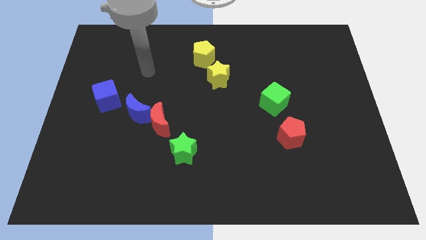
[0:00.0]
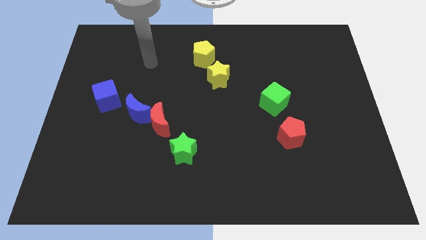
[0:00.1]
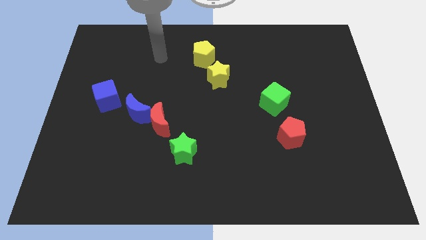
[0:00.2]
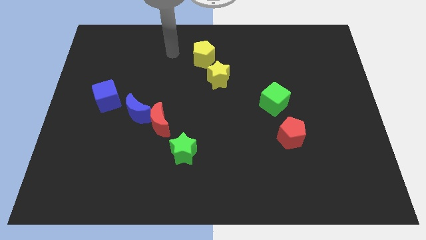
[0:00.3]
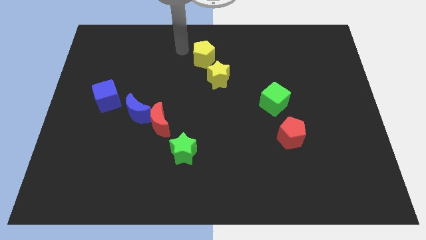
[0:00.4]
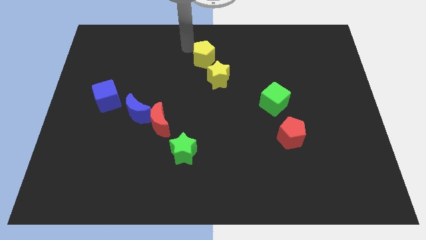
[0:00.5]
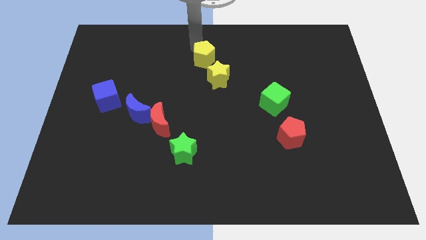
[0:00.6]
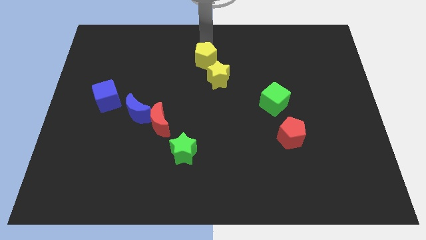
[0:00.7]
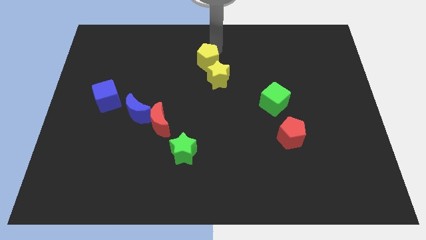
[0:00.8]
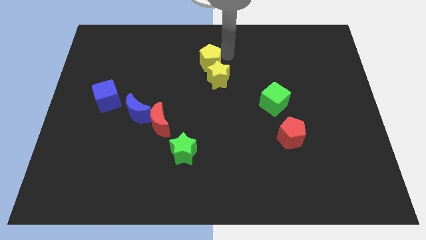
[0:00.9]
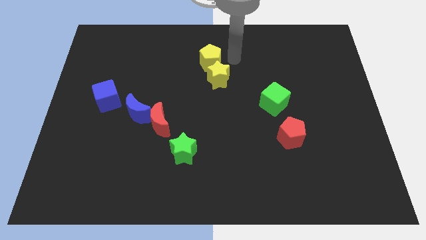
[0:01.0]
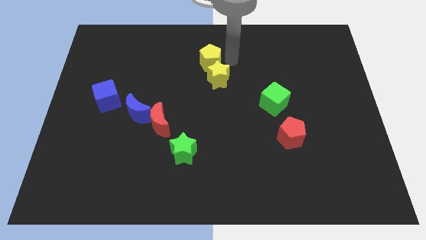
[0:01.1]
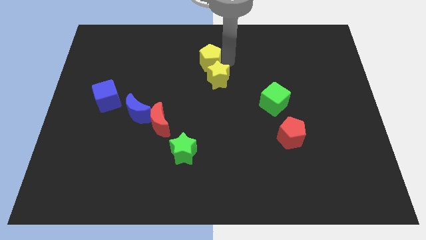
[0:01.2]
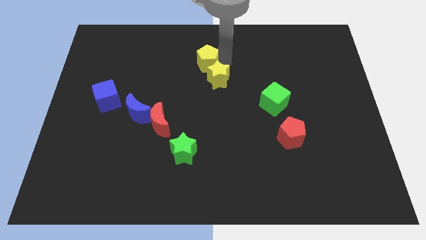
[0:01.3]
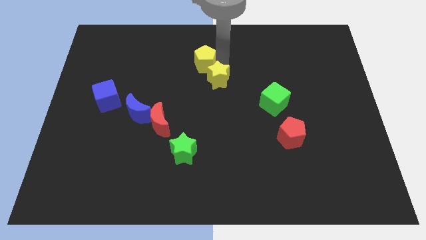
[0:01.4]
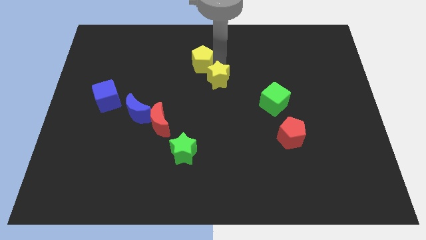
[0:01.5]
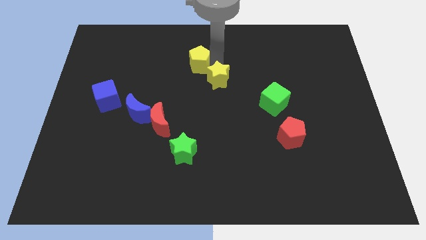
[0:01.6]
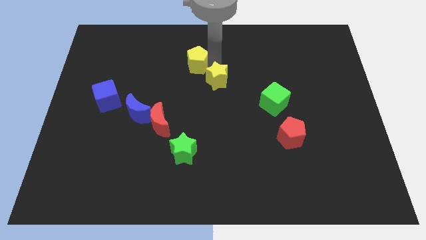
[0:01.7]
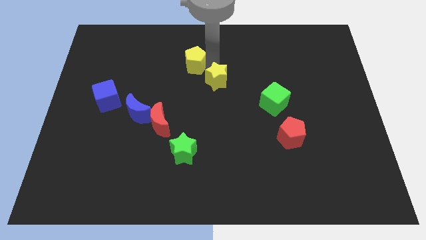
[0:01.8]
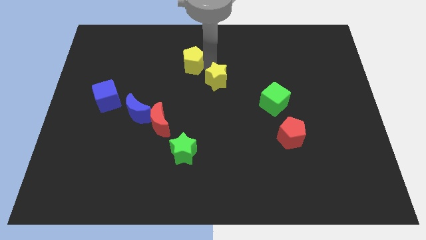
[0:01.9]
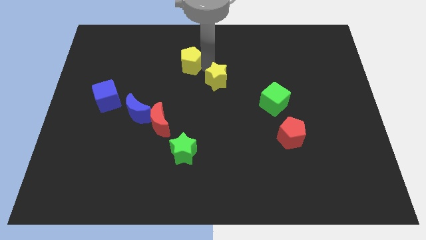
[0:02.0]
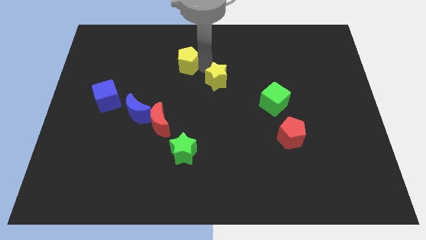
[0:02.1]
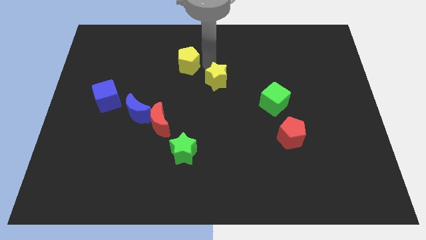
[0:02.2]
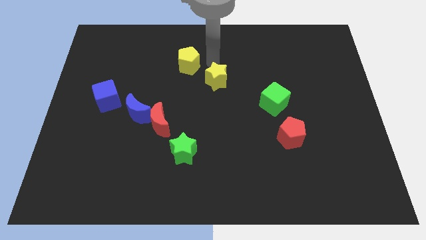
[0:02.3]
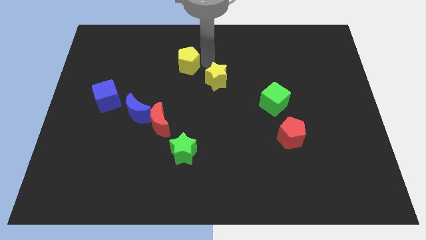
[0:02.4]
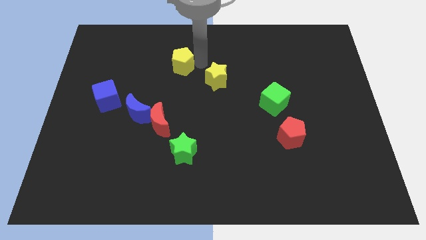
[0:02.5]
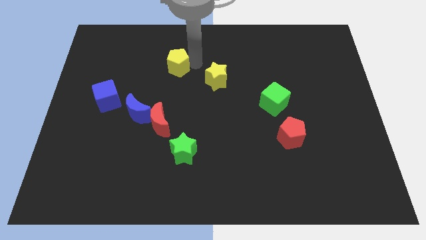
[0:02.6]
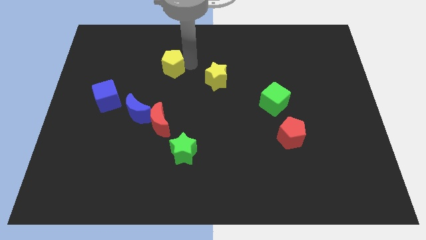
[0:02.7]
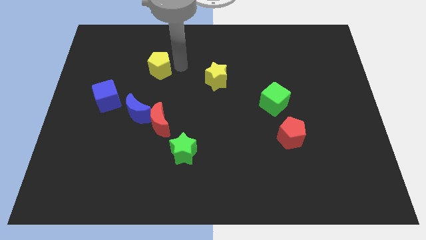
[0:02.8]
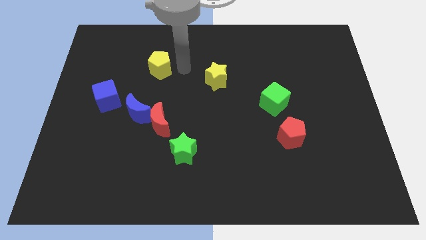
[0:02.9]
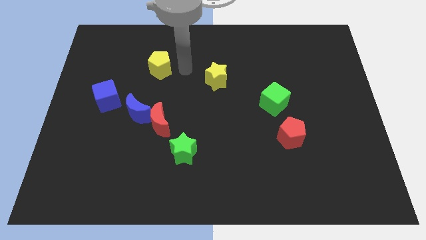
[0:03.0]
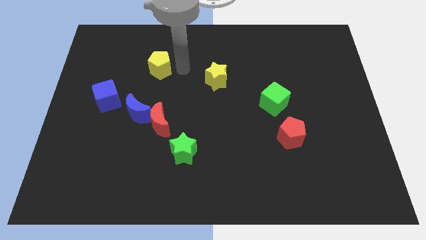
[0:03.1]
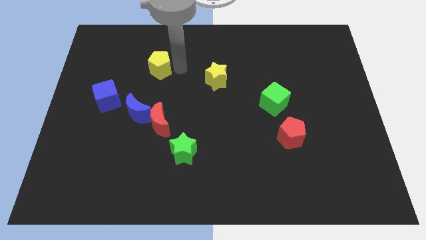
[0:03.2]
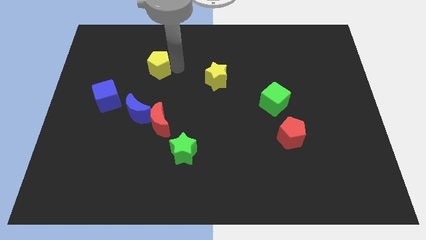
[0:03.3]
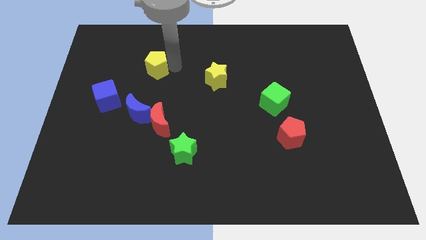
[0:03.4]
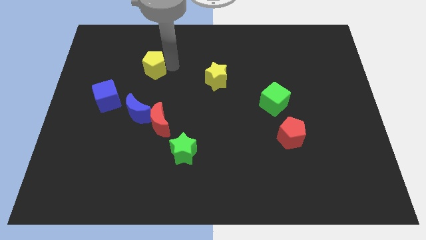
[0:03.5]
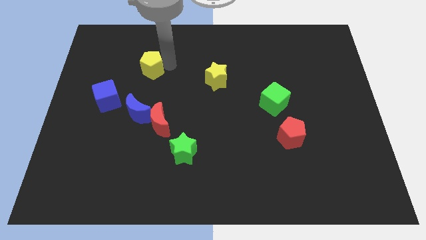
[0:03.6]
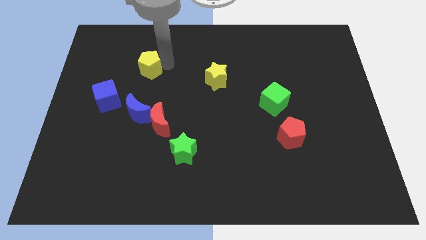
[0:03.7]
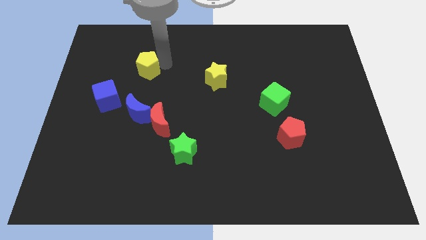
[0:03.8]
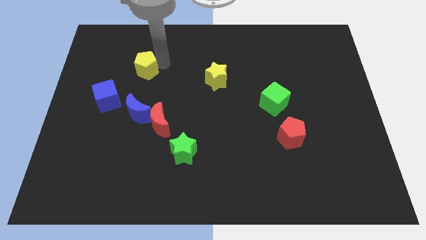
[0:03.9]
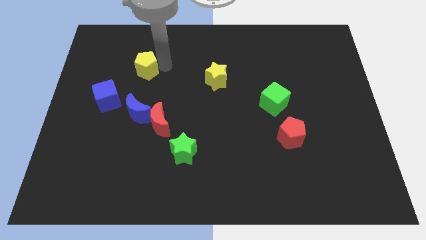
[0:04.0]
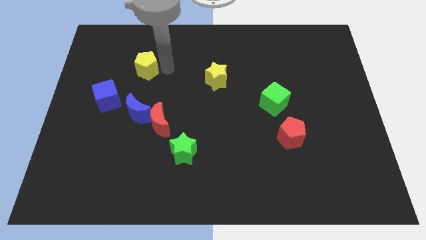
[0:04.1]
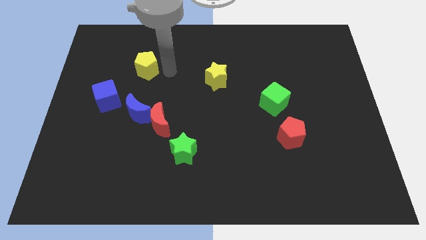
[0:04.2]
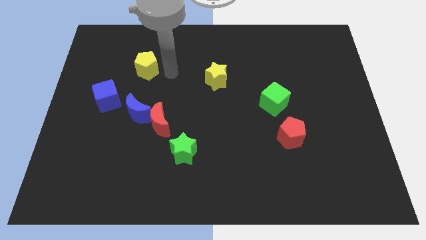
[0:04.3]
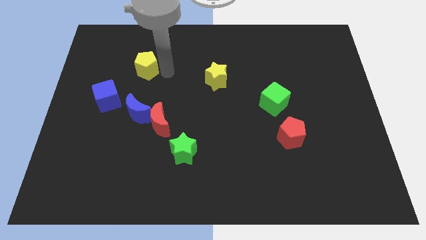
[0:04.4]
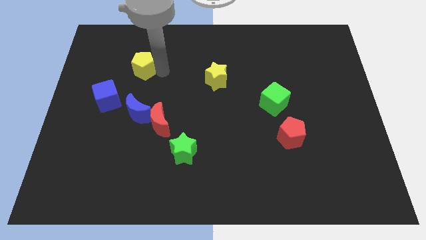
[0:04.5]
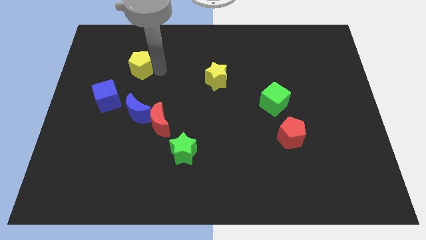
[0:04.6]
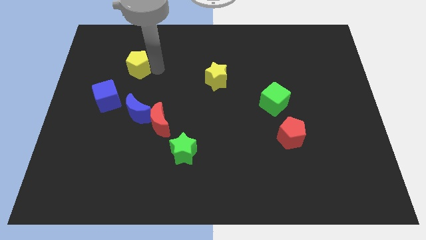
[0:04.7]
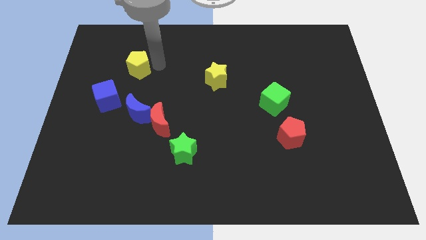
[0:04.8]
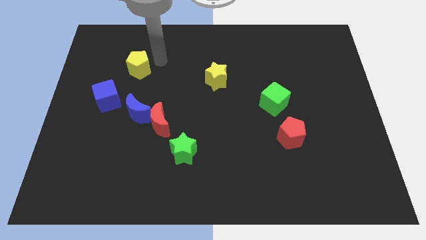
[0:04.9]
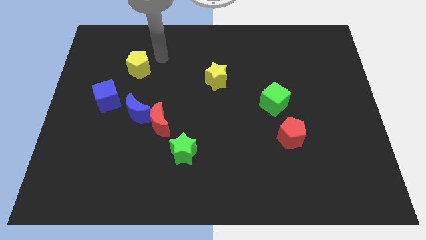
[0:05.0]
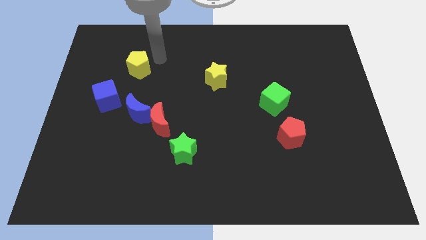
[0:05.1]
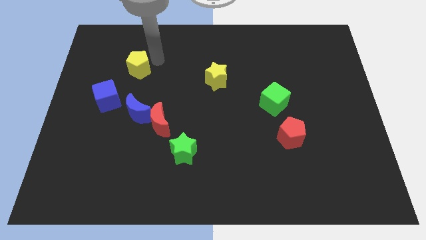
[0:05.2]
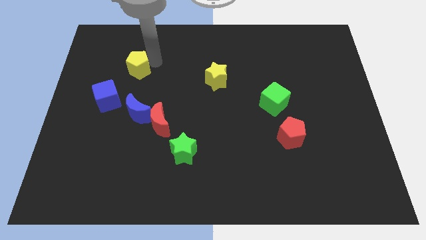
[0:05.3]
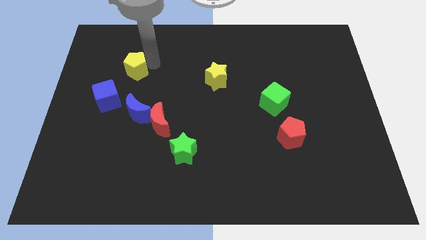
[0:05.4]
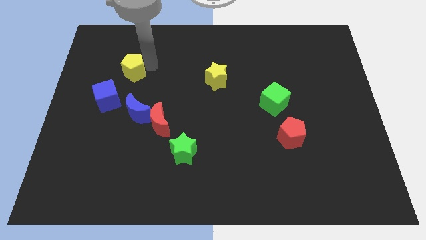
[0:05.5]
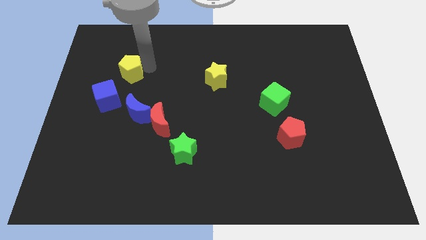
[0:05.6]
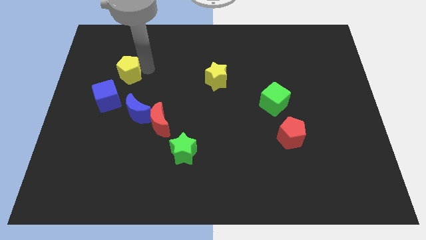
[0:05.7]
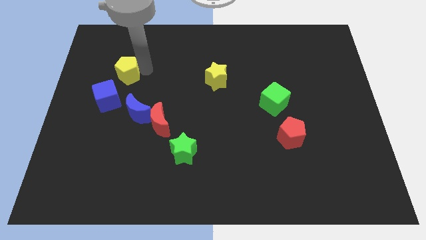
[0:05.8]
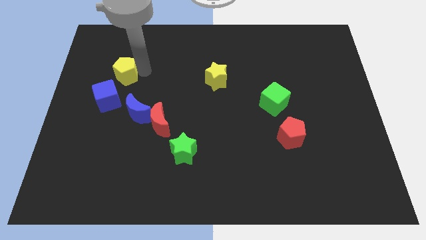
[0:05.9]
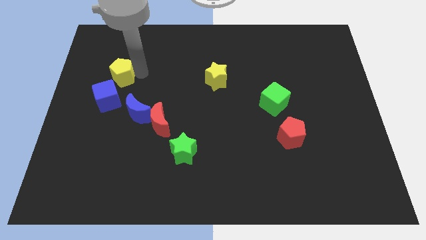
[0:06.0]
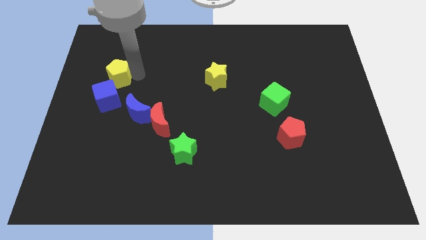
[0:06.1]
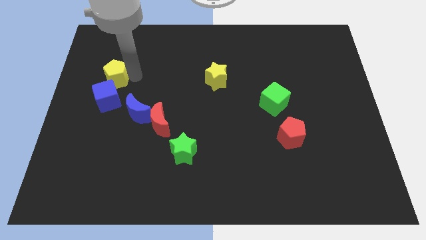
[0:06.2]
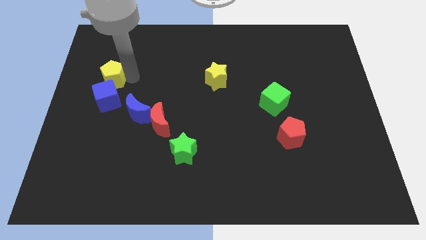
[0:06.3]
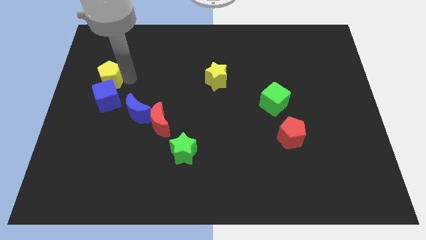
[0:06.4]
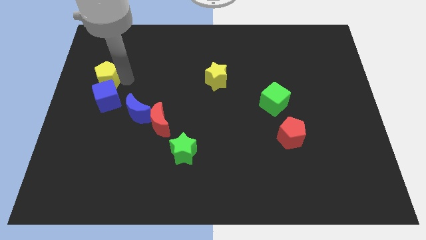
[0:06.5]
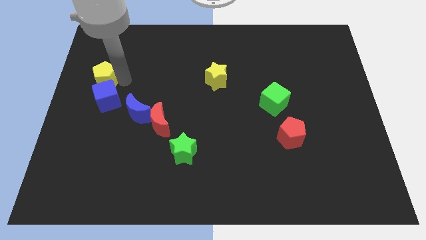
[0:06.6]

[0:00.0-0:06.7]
put the yellow pentagon to the center left
